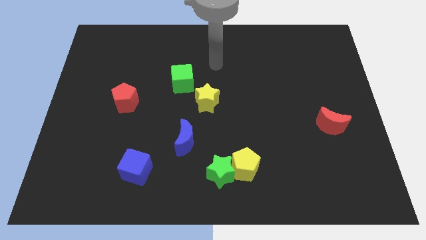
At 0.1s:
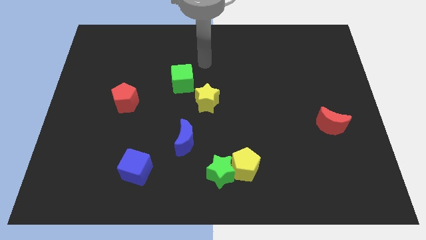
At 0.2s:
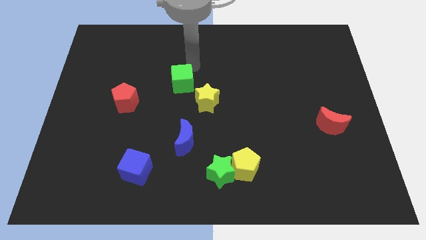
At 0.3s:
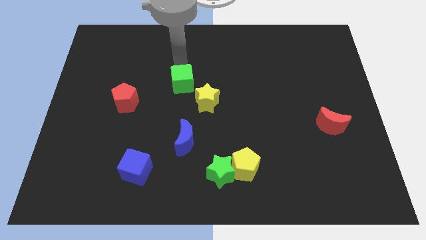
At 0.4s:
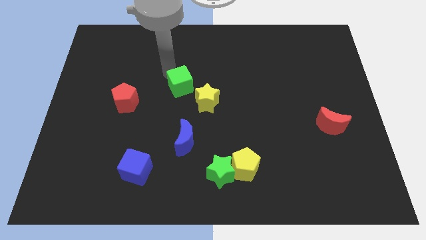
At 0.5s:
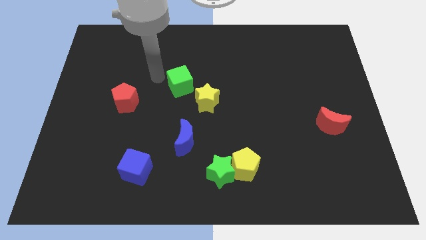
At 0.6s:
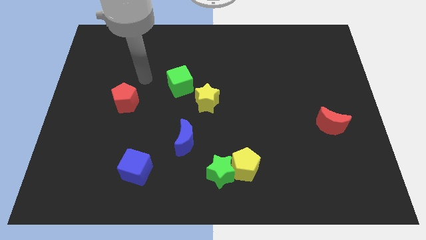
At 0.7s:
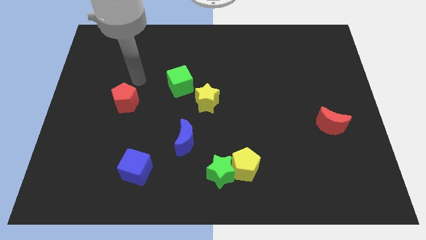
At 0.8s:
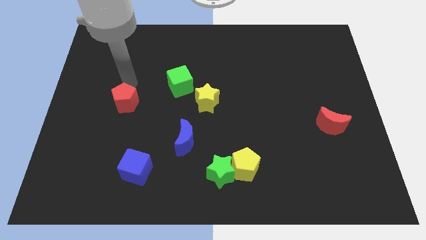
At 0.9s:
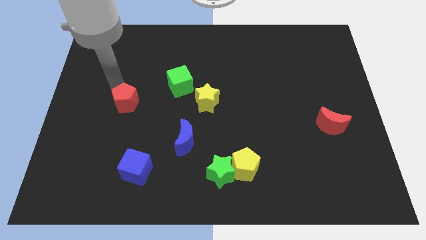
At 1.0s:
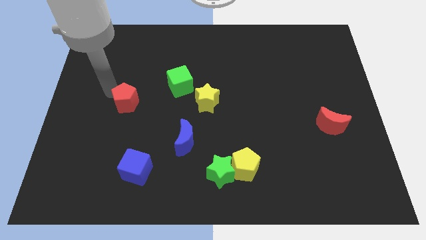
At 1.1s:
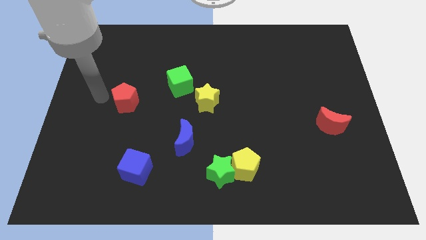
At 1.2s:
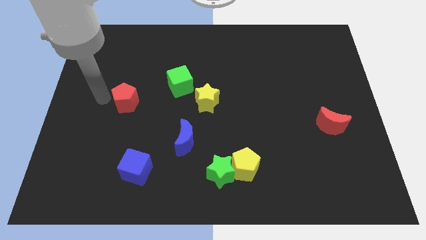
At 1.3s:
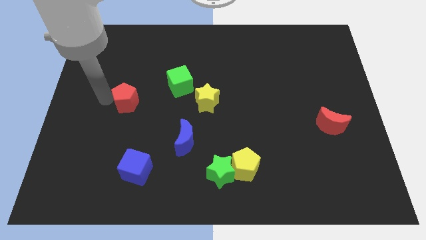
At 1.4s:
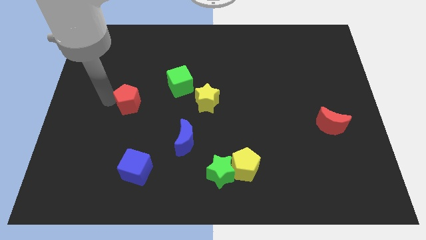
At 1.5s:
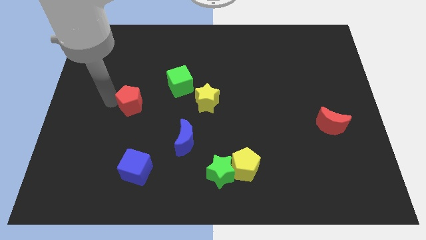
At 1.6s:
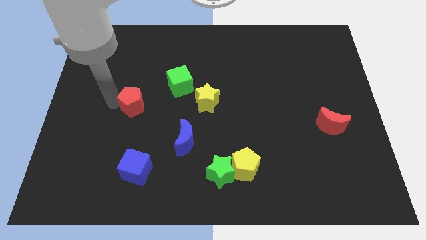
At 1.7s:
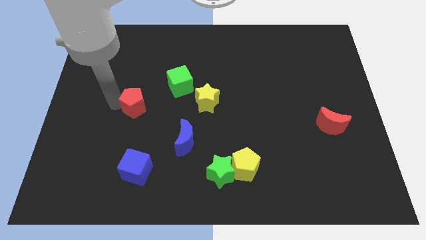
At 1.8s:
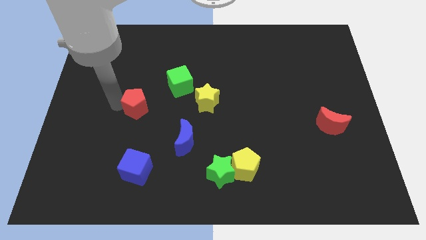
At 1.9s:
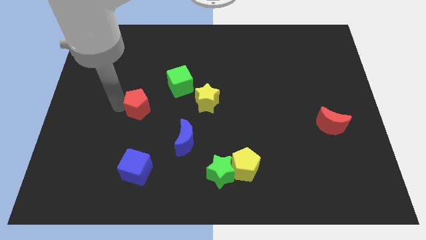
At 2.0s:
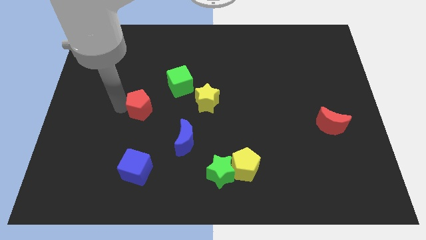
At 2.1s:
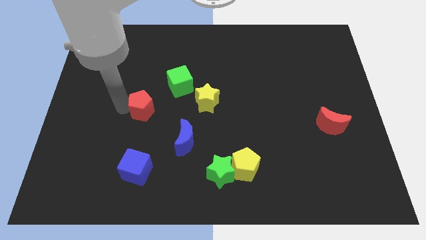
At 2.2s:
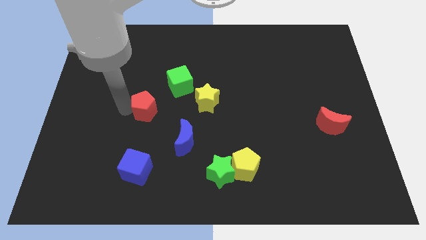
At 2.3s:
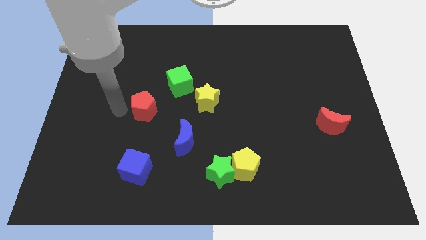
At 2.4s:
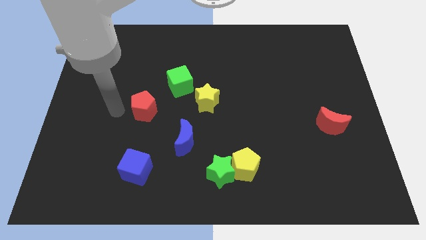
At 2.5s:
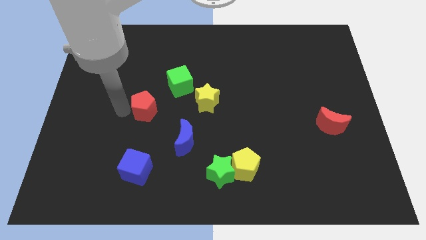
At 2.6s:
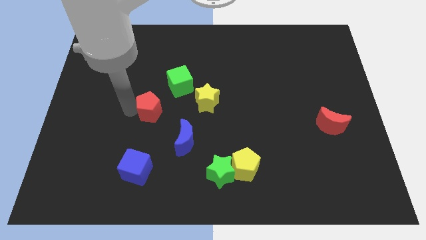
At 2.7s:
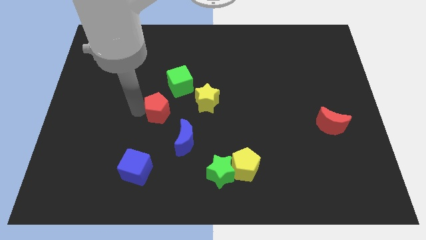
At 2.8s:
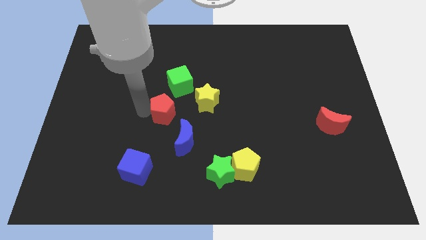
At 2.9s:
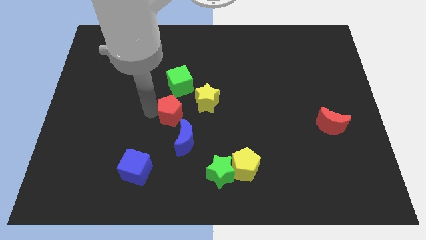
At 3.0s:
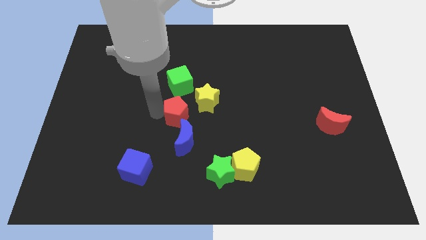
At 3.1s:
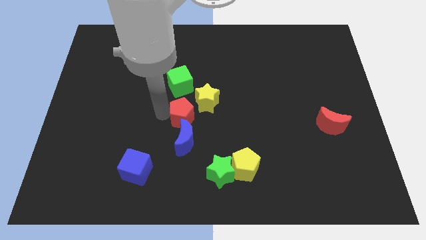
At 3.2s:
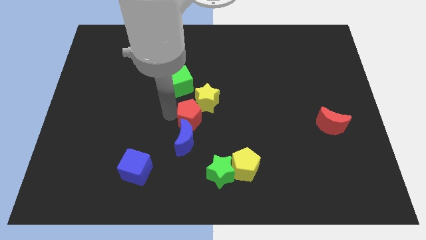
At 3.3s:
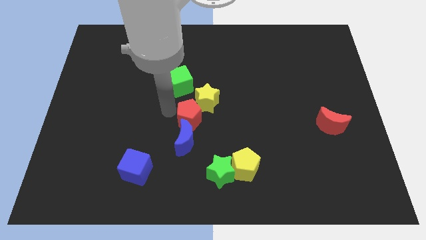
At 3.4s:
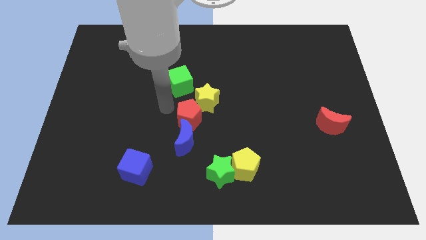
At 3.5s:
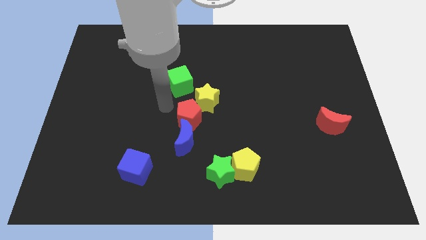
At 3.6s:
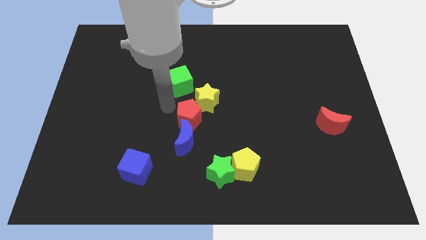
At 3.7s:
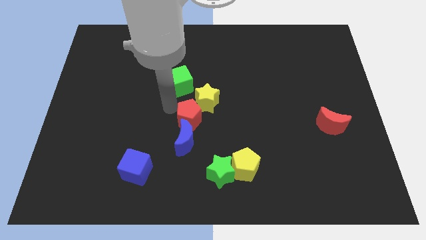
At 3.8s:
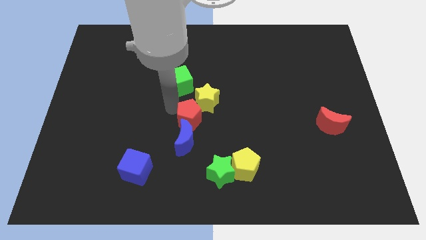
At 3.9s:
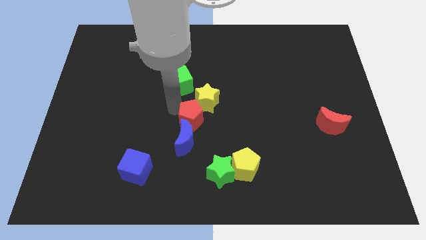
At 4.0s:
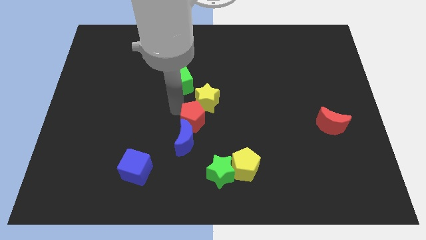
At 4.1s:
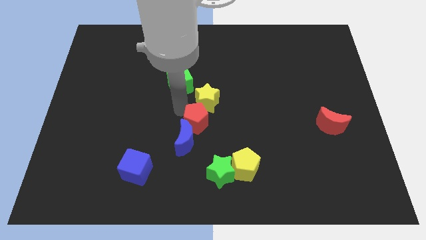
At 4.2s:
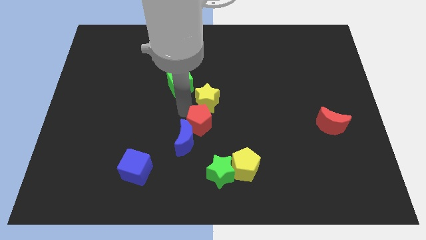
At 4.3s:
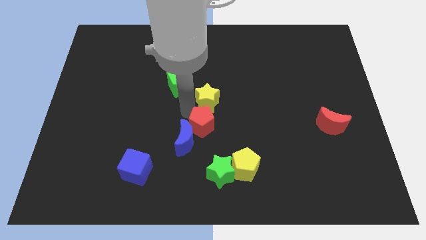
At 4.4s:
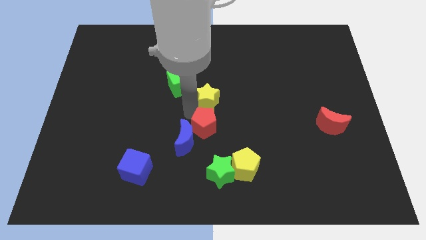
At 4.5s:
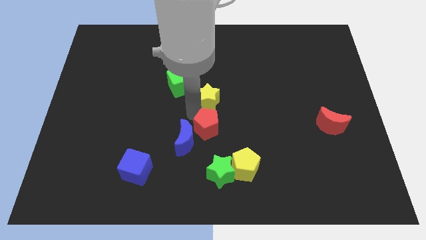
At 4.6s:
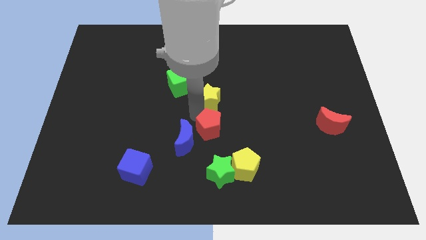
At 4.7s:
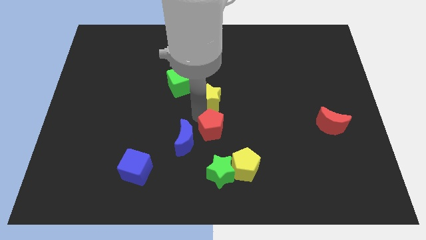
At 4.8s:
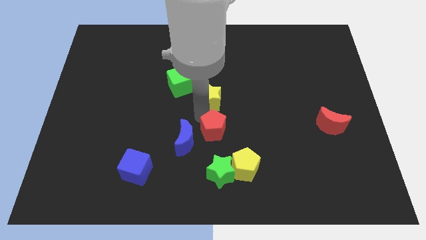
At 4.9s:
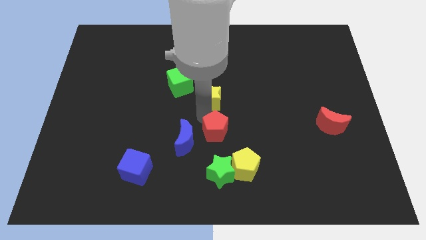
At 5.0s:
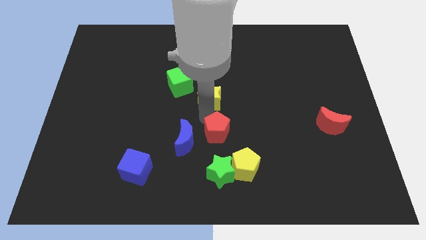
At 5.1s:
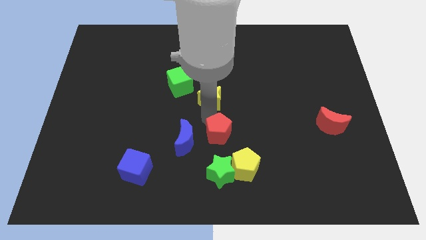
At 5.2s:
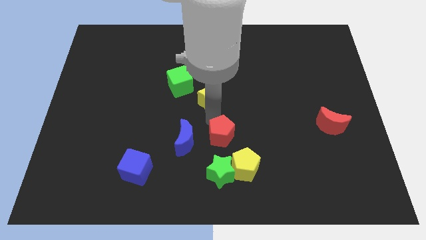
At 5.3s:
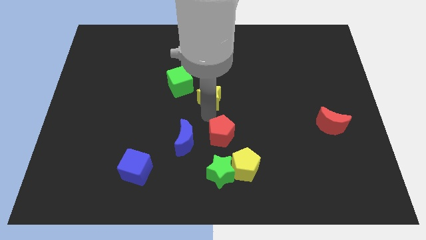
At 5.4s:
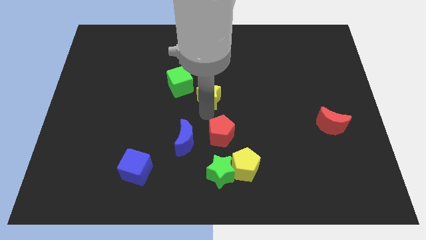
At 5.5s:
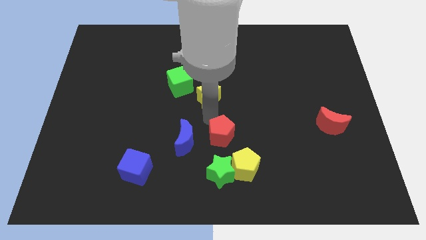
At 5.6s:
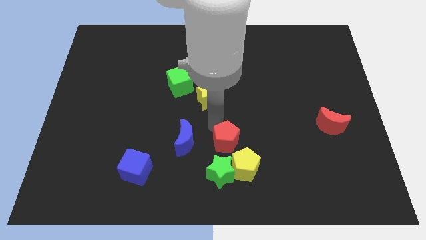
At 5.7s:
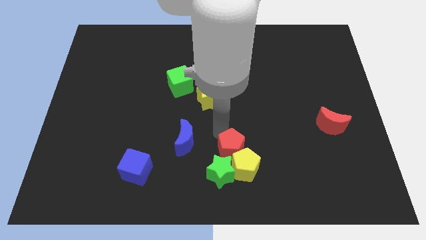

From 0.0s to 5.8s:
slide the red pentagon to the yellow pentagon

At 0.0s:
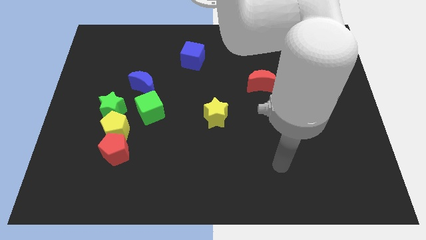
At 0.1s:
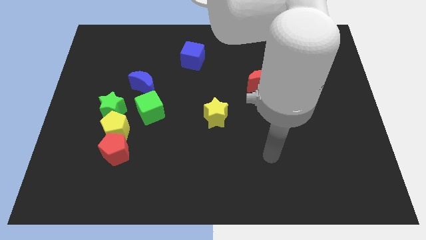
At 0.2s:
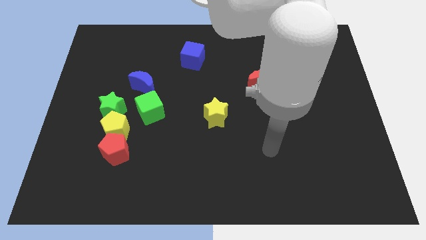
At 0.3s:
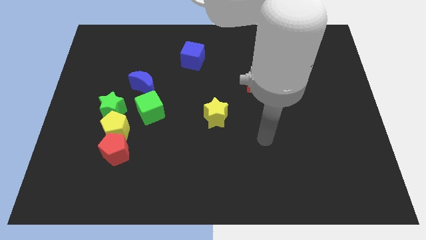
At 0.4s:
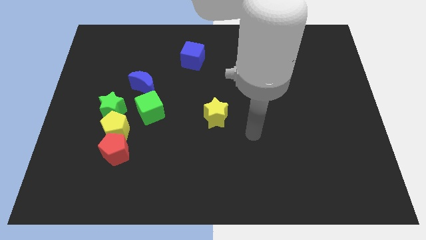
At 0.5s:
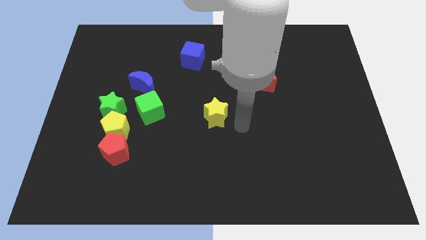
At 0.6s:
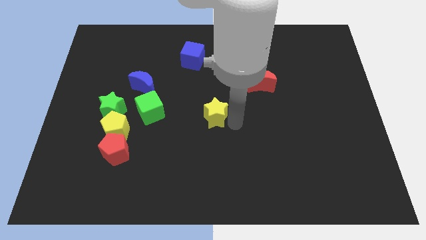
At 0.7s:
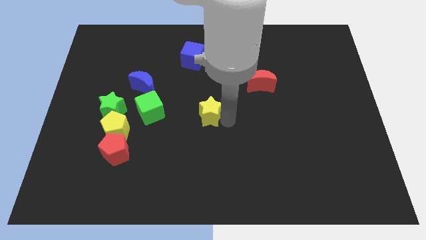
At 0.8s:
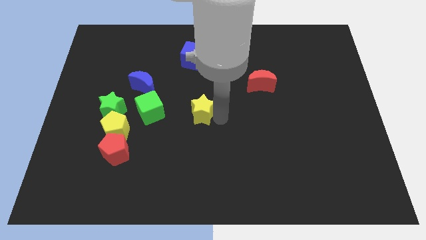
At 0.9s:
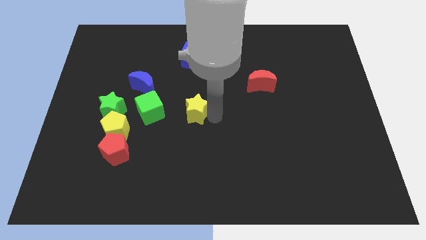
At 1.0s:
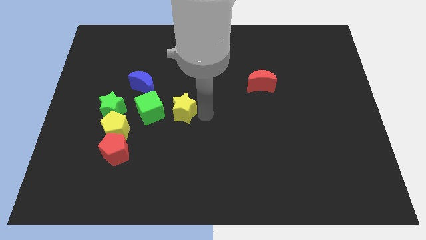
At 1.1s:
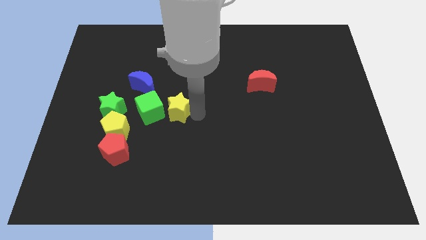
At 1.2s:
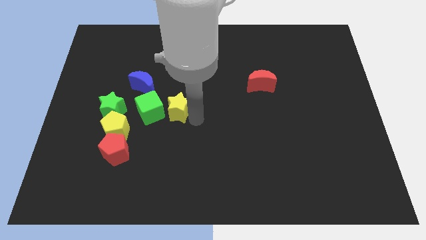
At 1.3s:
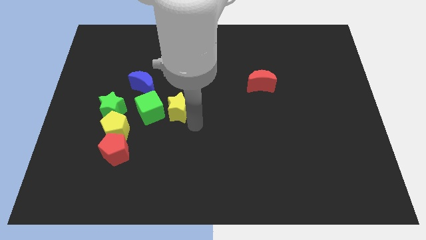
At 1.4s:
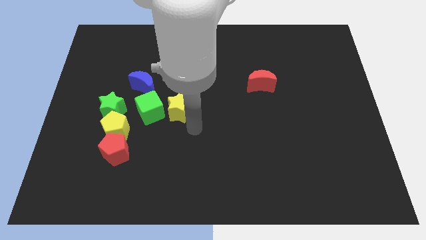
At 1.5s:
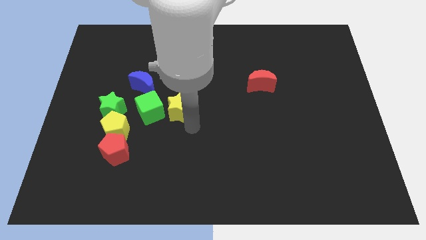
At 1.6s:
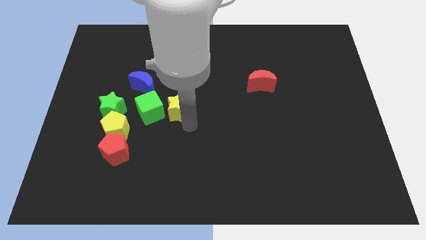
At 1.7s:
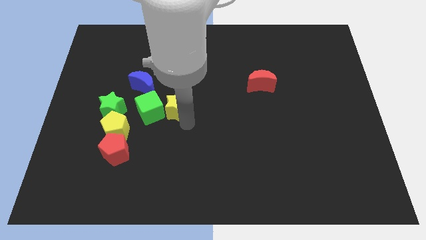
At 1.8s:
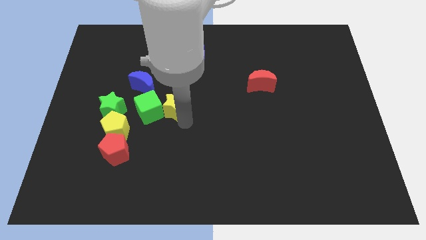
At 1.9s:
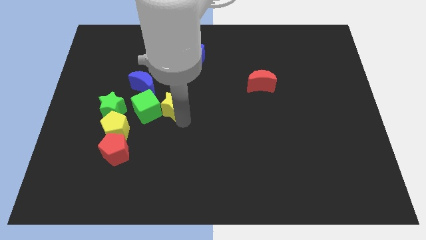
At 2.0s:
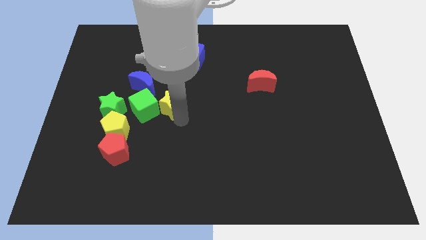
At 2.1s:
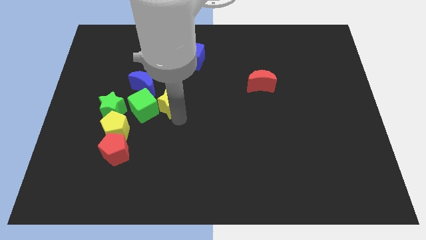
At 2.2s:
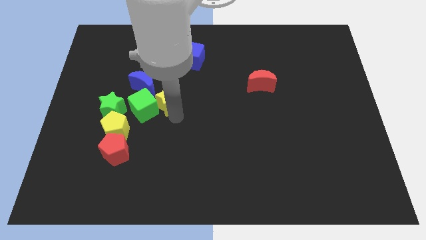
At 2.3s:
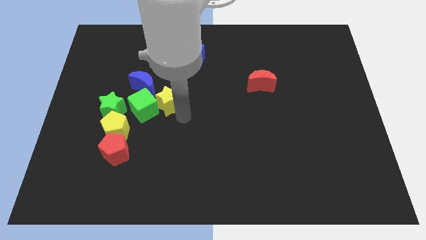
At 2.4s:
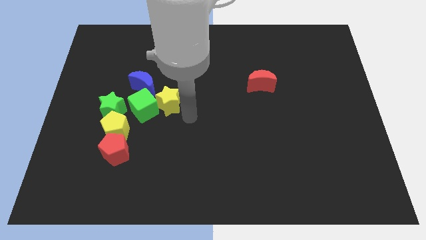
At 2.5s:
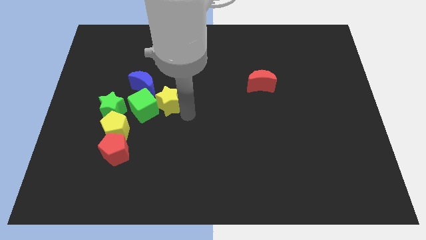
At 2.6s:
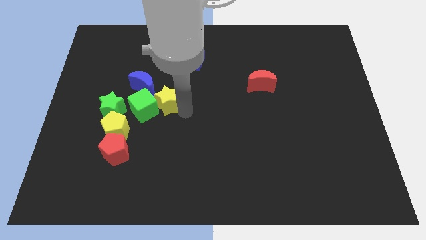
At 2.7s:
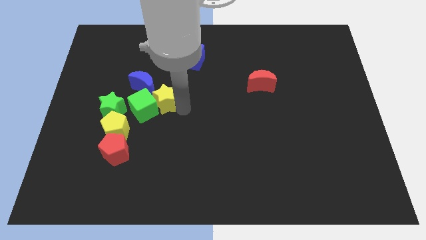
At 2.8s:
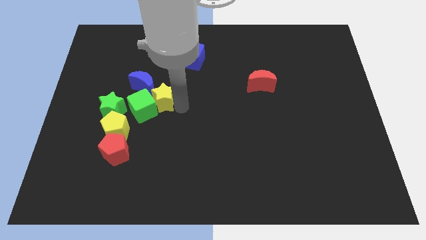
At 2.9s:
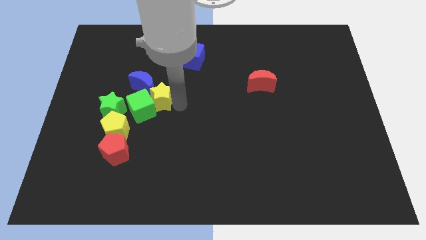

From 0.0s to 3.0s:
push the yellow star next to the blue moon
